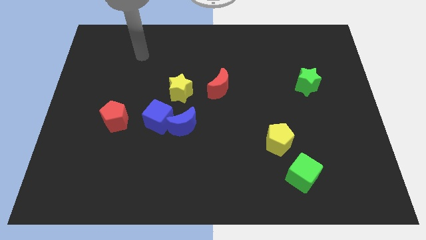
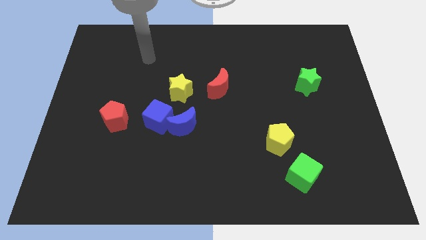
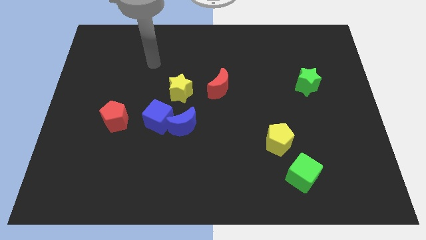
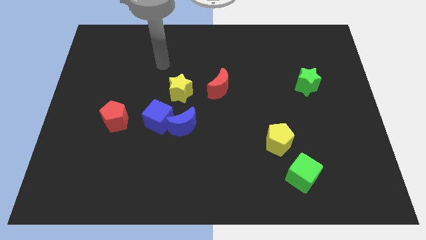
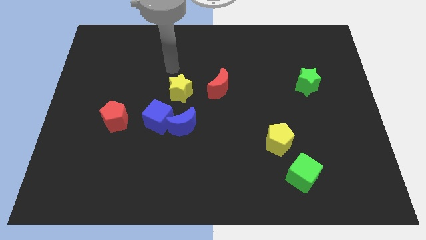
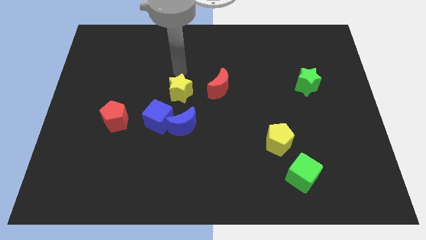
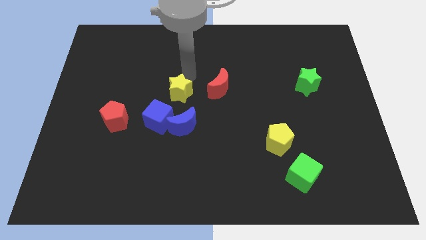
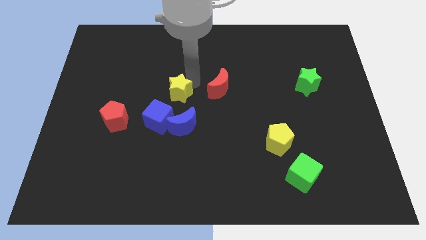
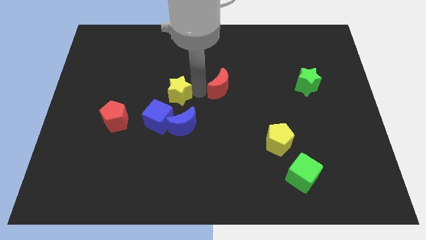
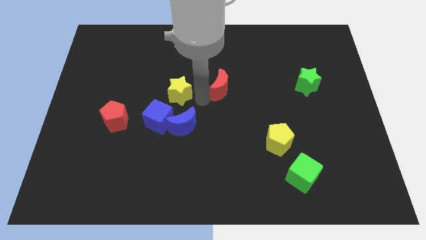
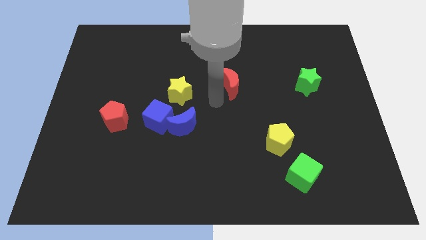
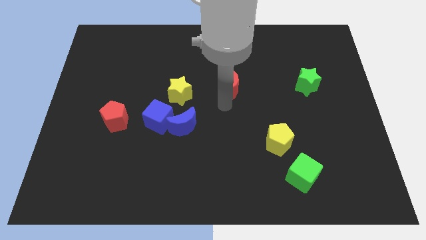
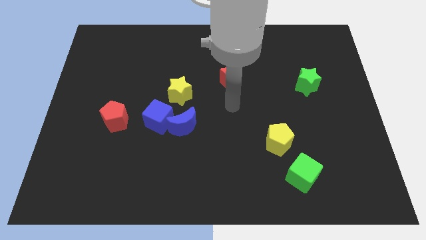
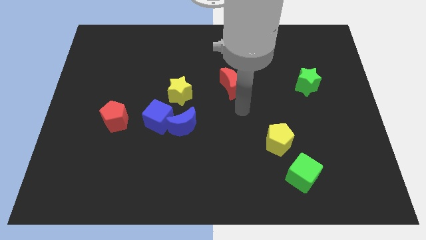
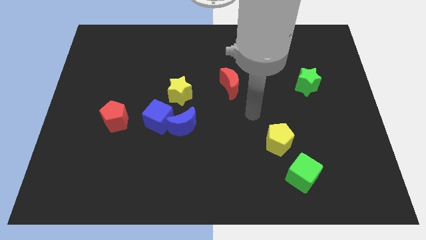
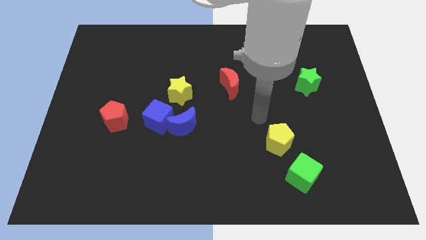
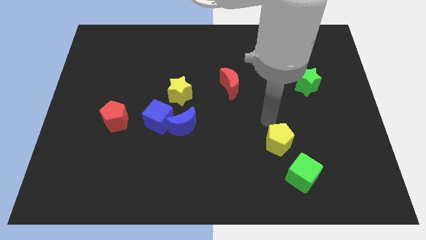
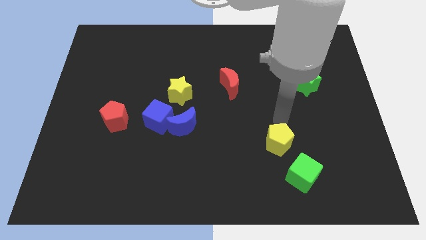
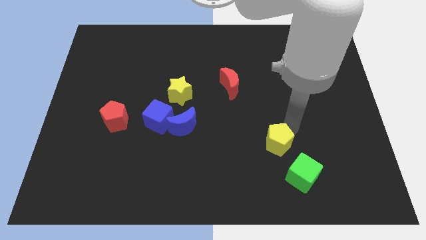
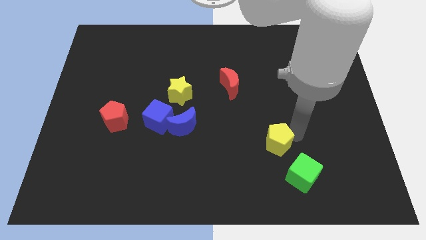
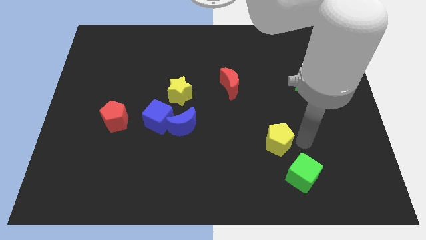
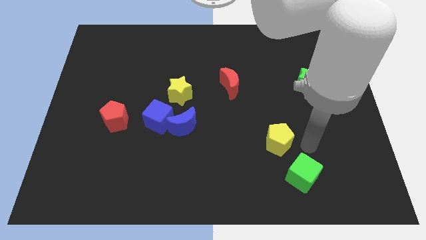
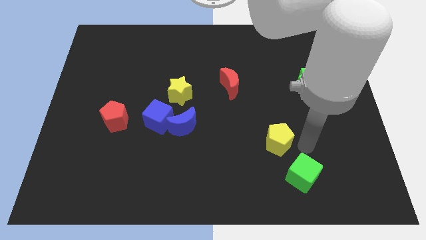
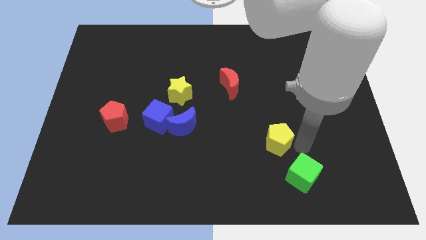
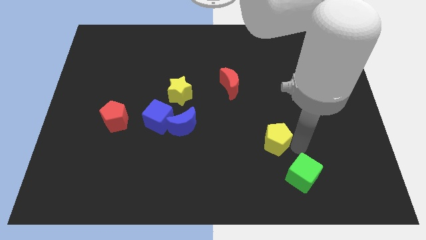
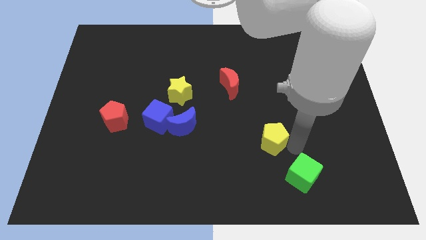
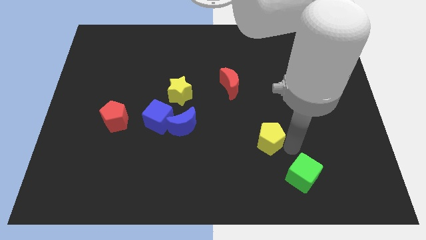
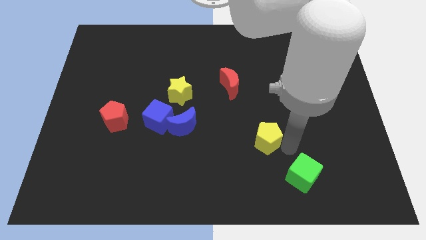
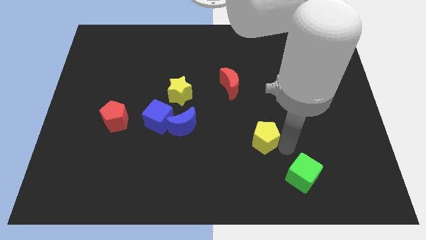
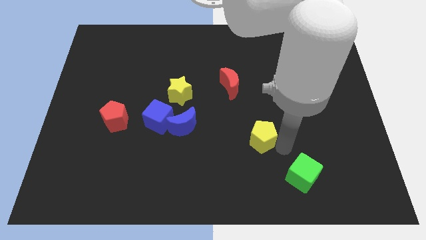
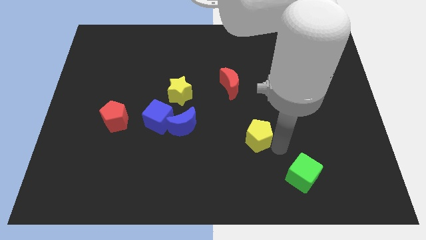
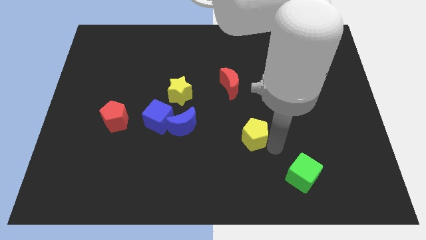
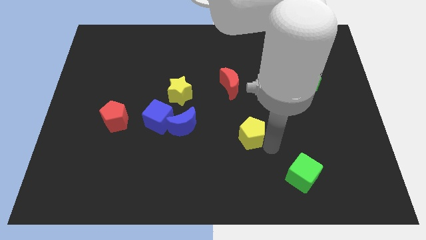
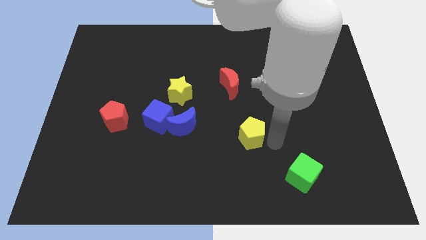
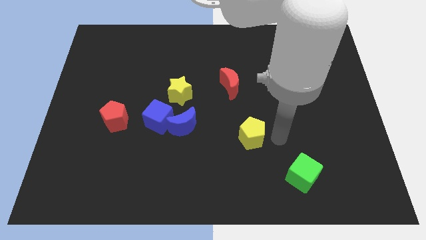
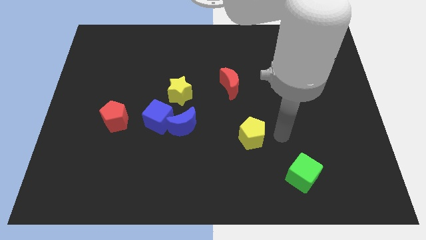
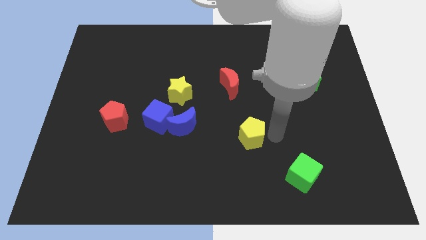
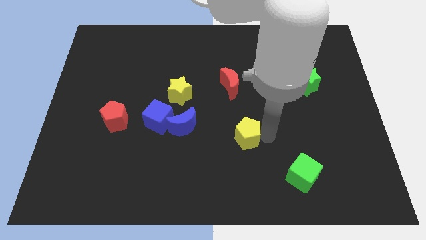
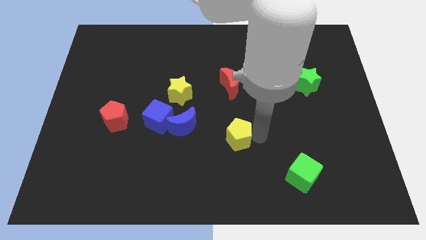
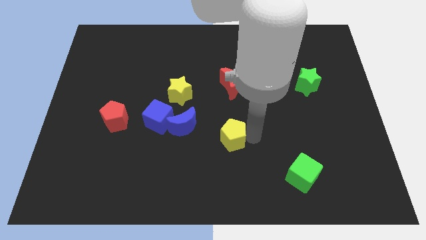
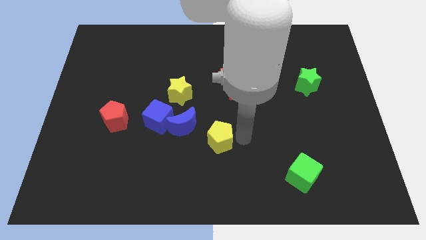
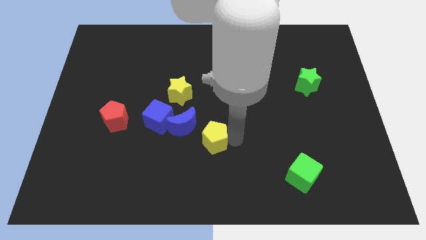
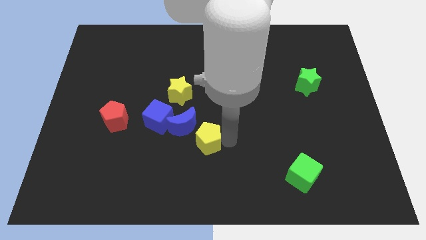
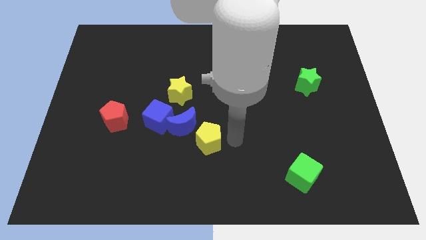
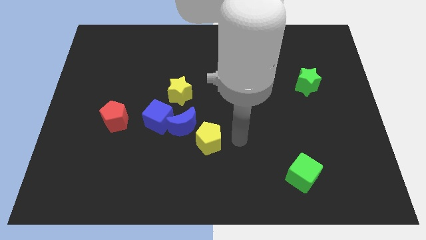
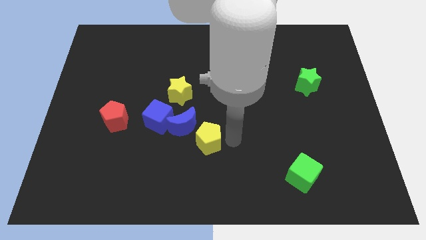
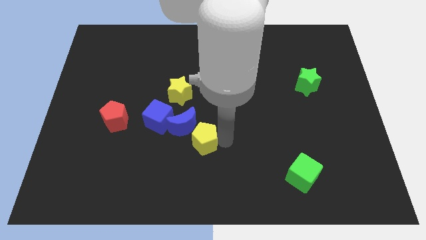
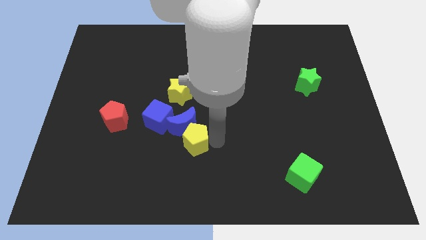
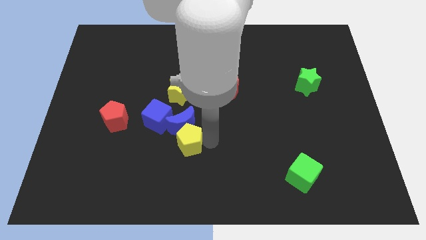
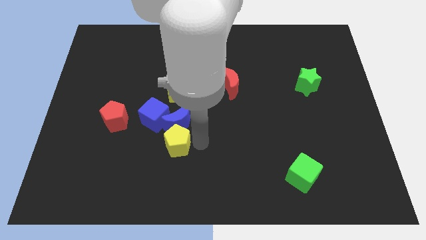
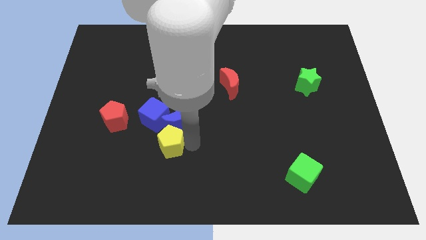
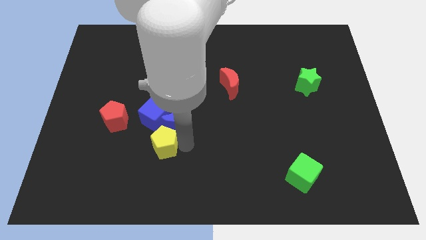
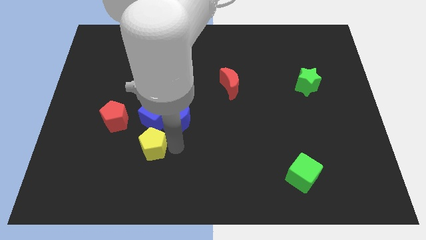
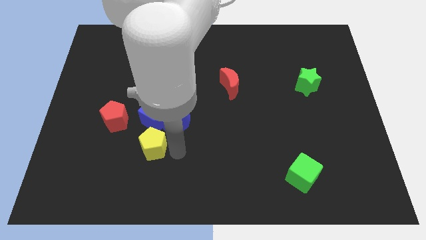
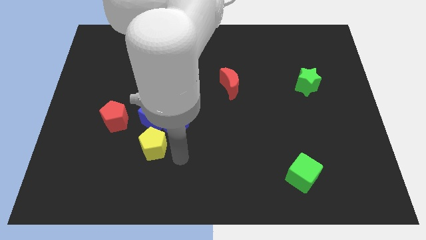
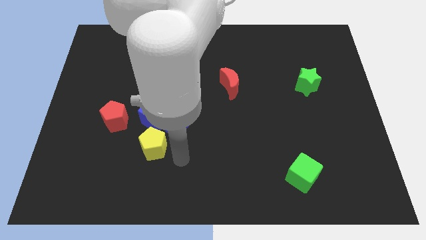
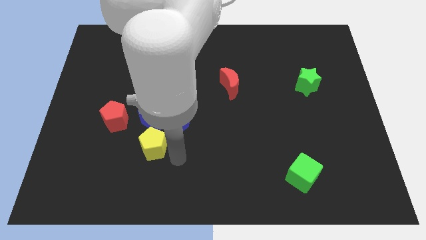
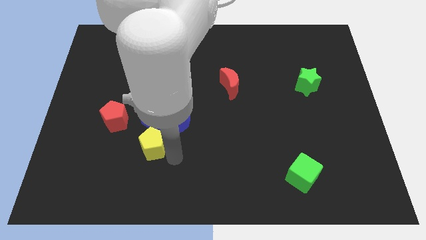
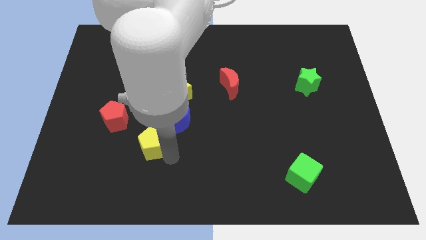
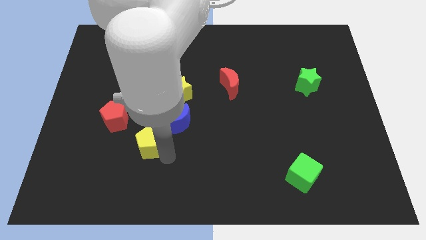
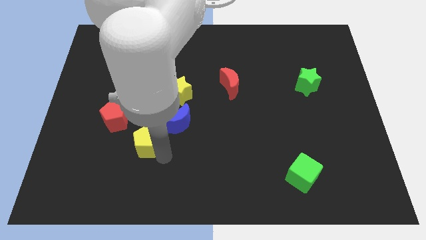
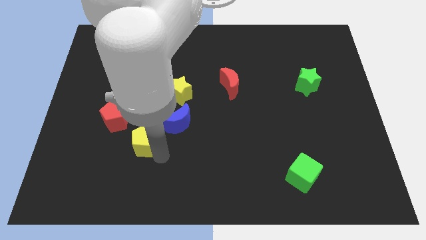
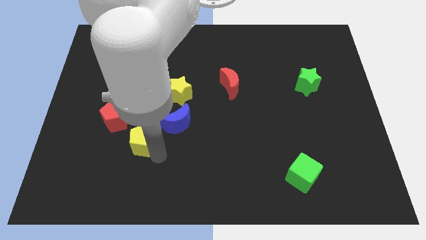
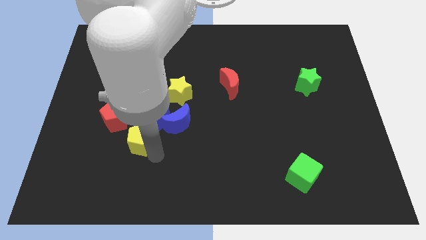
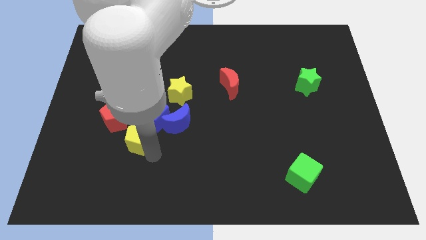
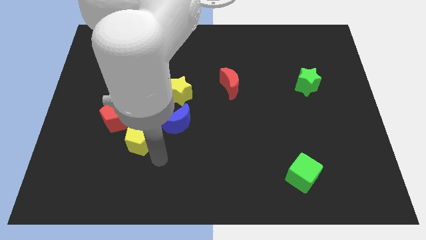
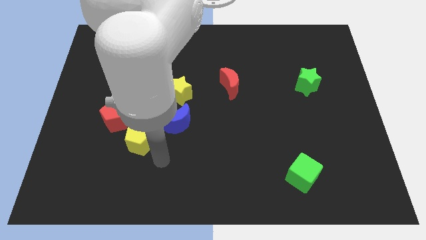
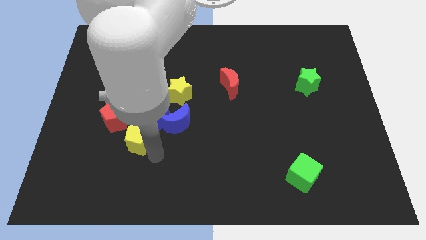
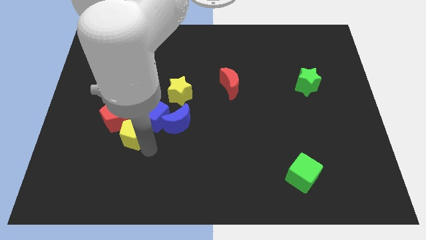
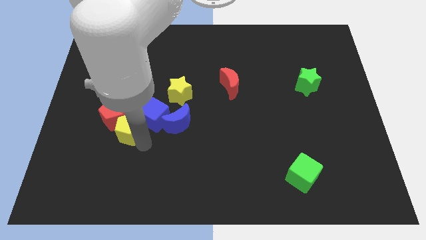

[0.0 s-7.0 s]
put the yellow pentagon towards the red pentagon
